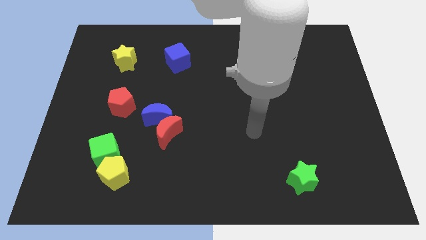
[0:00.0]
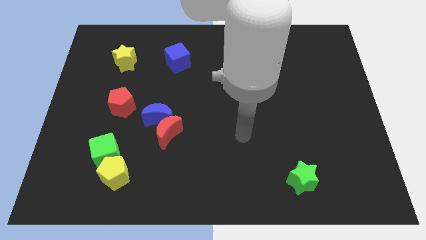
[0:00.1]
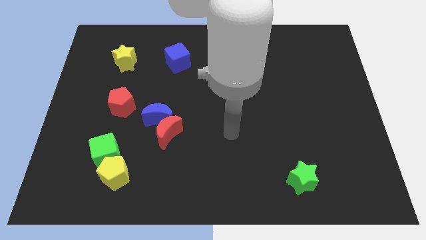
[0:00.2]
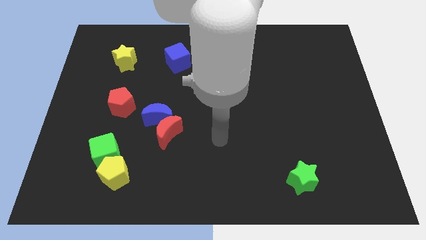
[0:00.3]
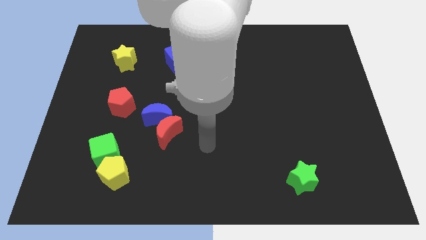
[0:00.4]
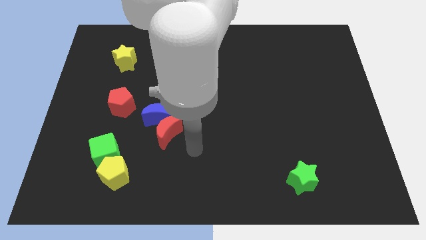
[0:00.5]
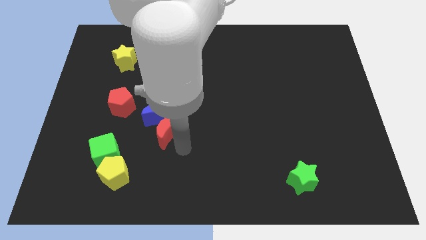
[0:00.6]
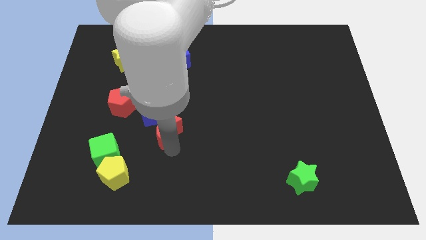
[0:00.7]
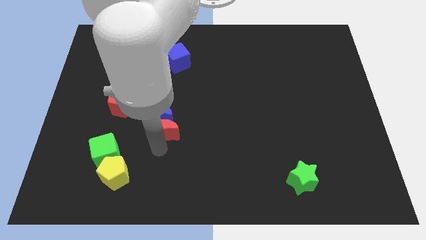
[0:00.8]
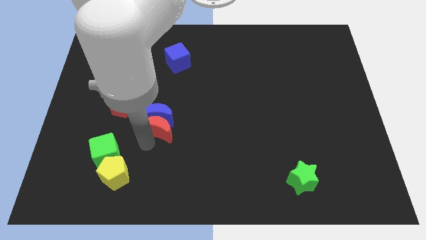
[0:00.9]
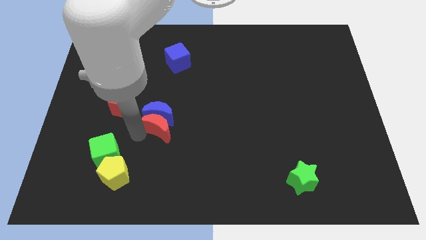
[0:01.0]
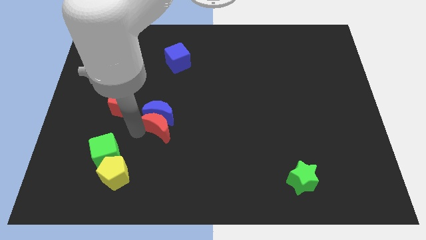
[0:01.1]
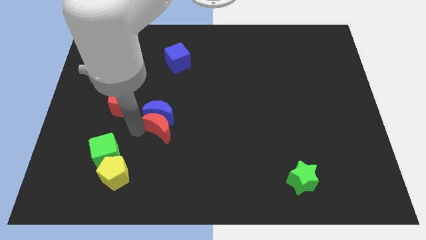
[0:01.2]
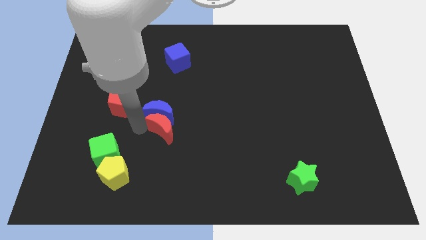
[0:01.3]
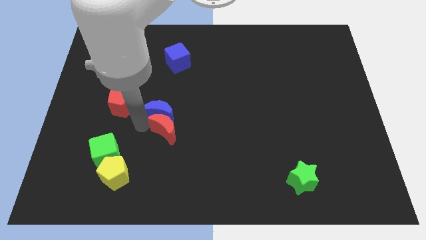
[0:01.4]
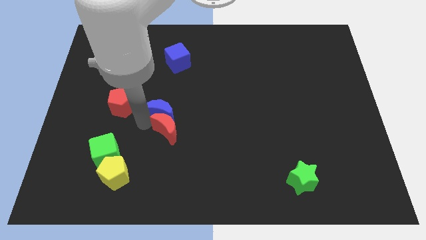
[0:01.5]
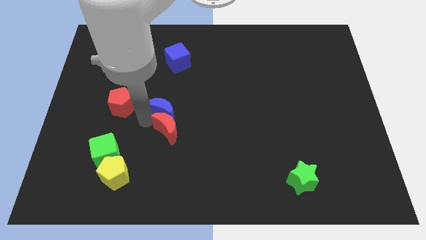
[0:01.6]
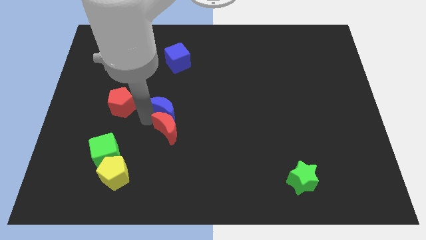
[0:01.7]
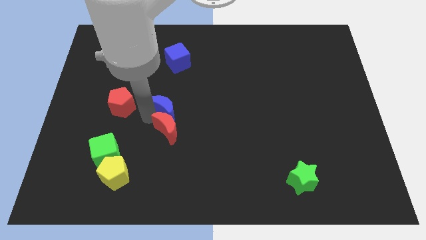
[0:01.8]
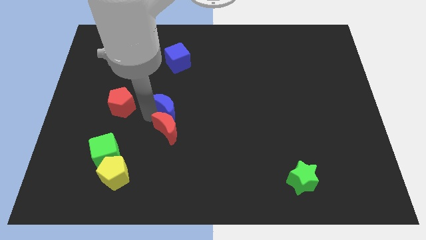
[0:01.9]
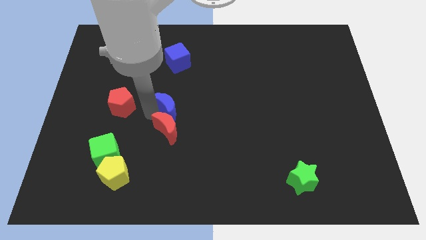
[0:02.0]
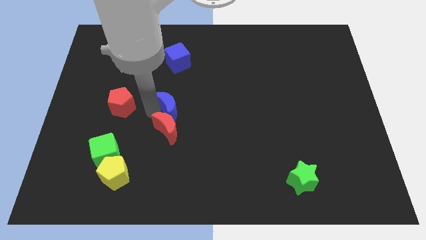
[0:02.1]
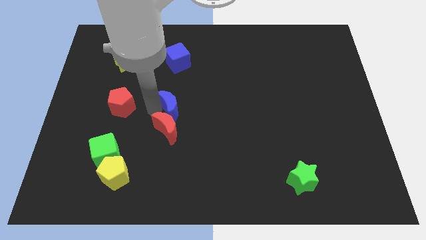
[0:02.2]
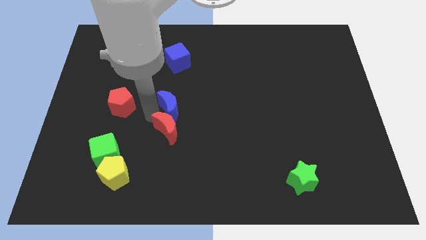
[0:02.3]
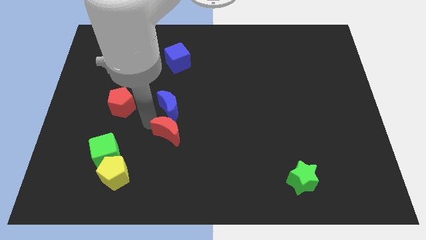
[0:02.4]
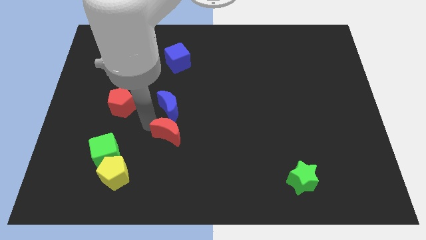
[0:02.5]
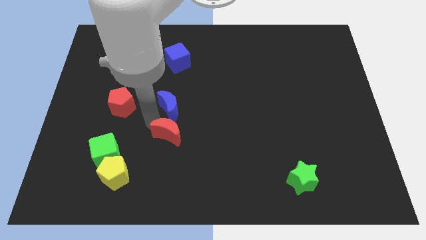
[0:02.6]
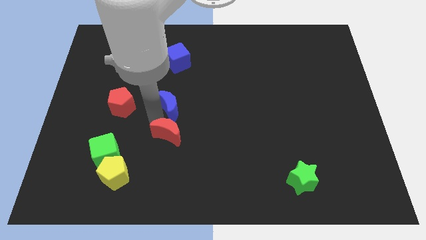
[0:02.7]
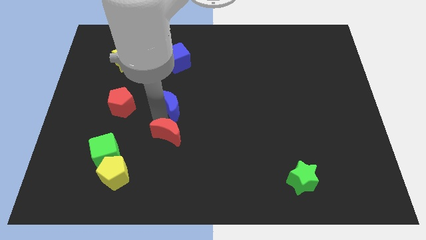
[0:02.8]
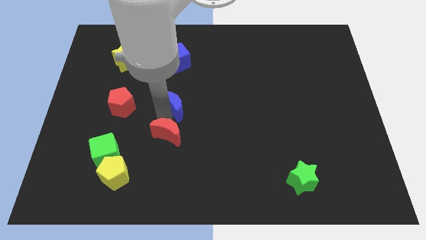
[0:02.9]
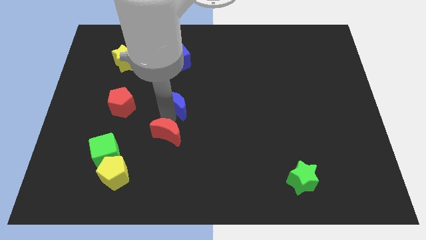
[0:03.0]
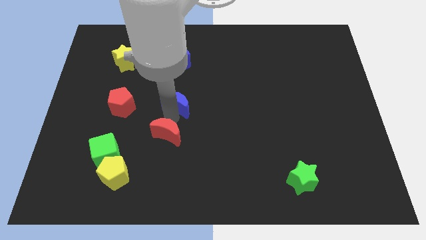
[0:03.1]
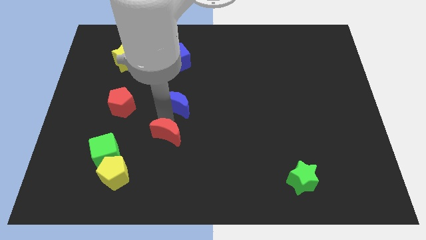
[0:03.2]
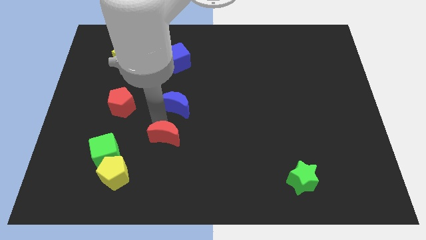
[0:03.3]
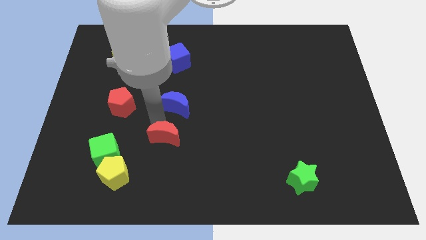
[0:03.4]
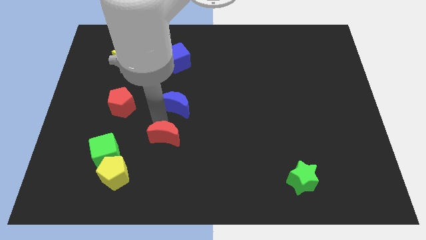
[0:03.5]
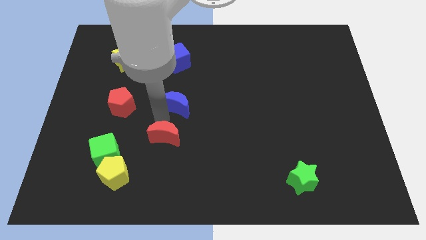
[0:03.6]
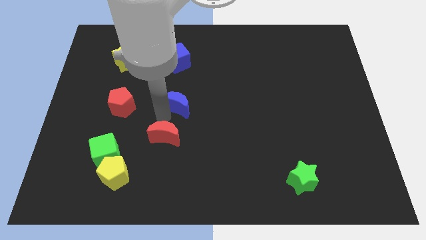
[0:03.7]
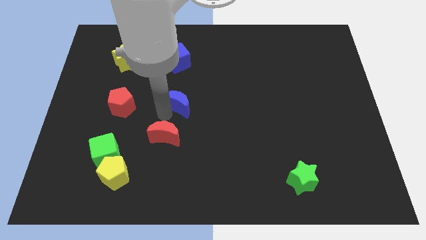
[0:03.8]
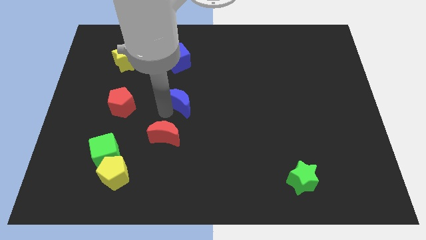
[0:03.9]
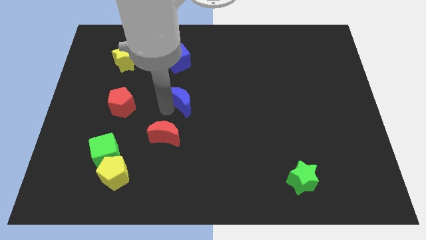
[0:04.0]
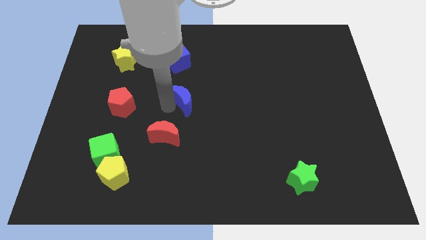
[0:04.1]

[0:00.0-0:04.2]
slide the blue moon upwards and to the right somewhat

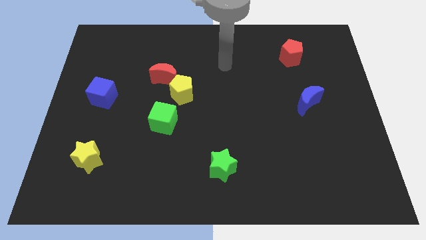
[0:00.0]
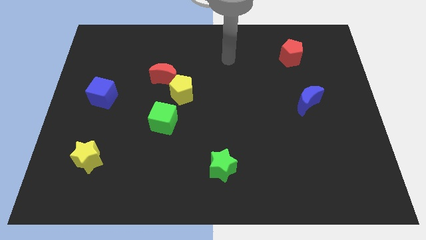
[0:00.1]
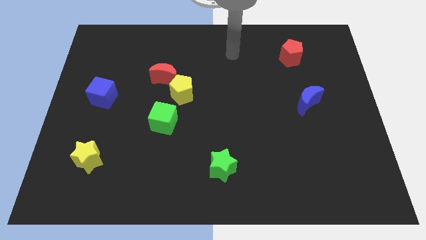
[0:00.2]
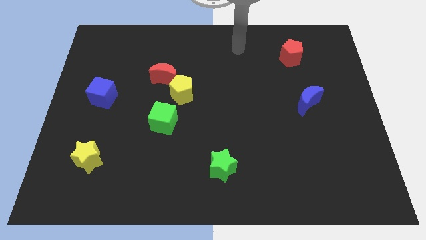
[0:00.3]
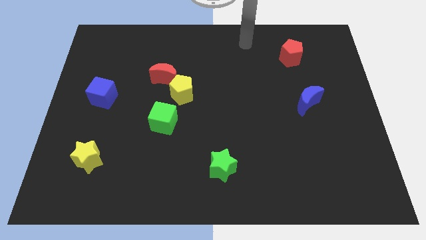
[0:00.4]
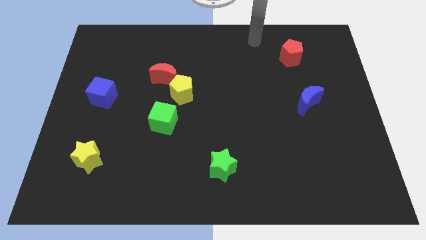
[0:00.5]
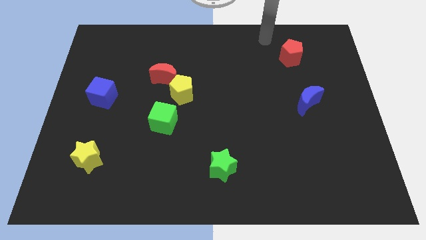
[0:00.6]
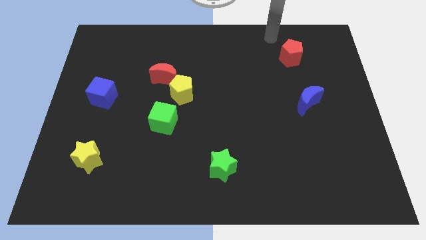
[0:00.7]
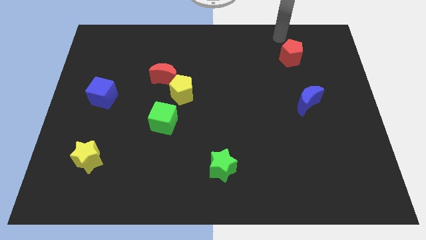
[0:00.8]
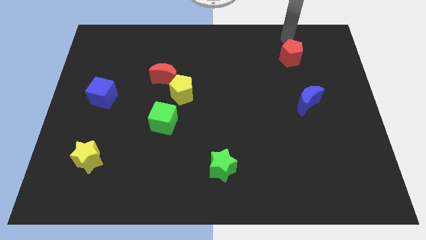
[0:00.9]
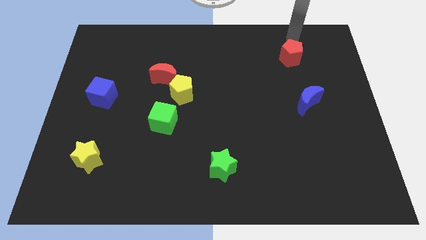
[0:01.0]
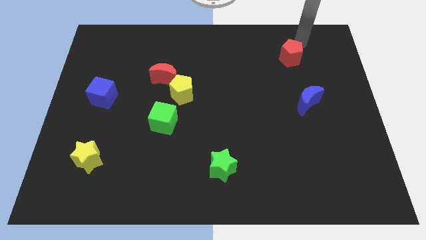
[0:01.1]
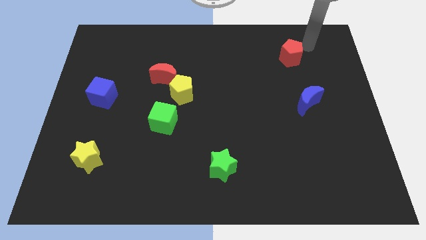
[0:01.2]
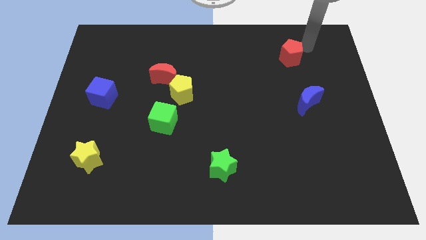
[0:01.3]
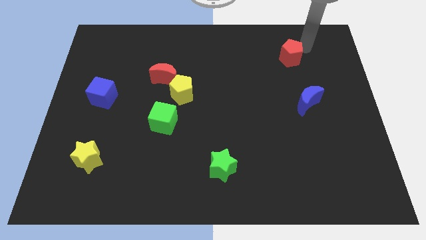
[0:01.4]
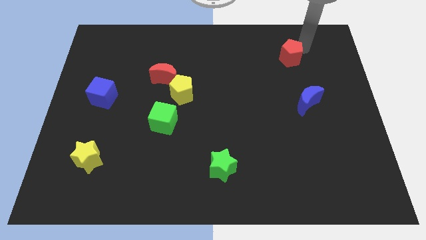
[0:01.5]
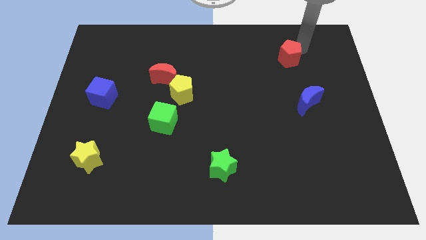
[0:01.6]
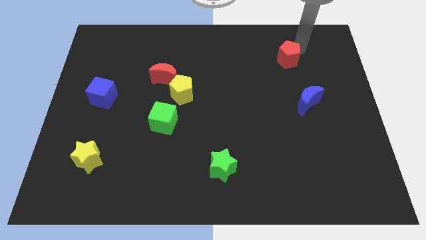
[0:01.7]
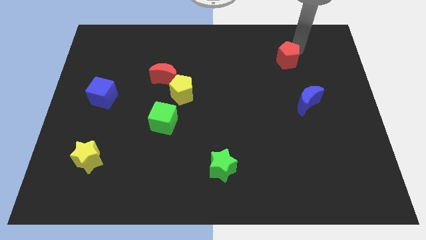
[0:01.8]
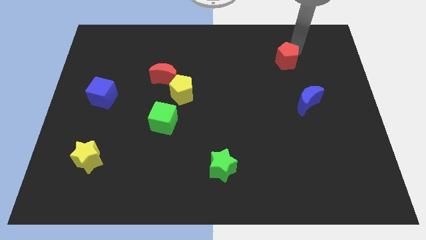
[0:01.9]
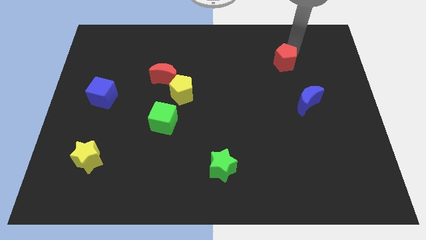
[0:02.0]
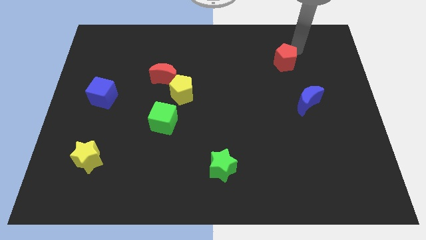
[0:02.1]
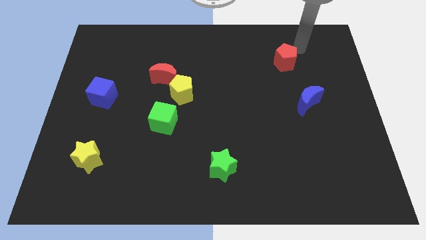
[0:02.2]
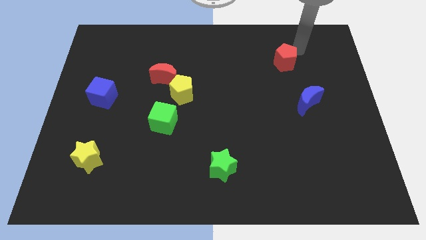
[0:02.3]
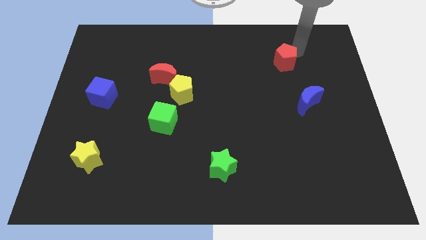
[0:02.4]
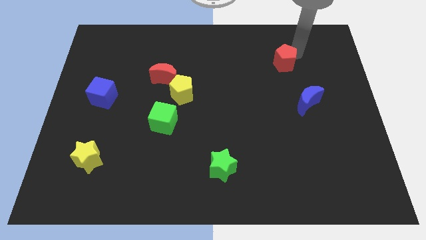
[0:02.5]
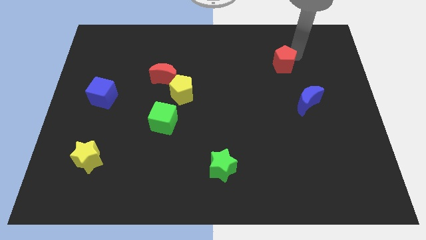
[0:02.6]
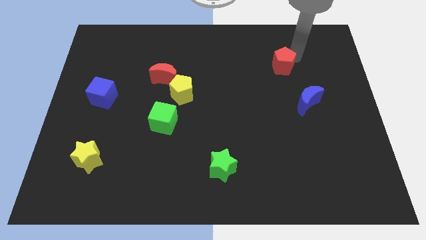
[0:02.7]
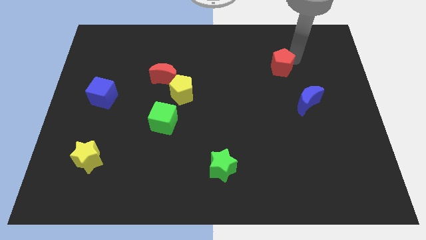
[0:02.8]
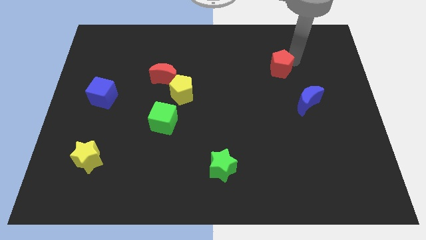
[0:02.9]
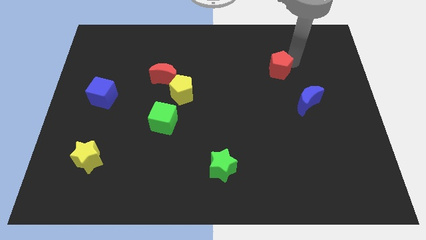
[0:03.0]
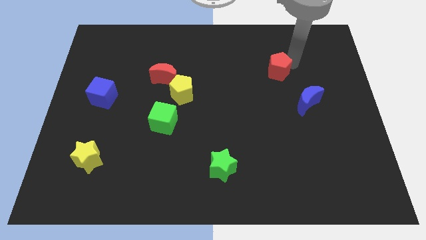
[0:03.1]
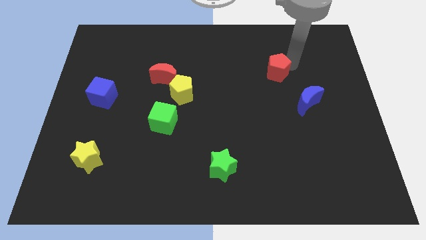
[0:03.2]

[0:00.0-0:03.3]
slightly move the red pentagon down and to the left

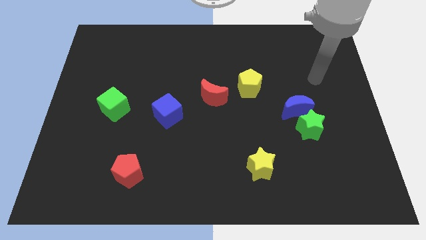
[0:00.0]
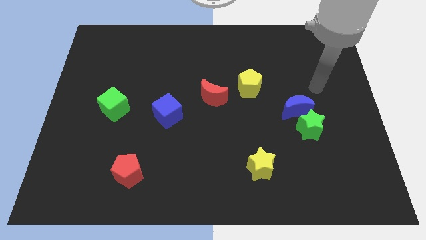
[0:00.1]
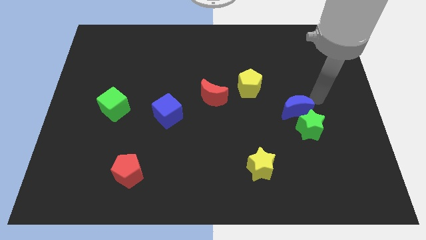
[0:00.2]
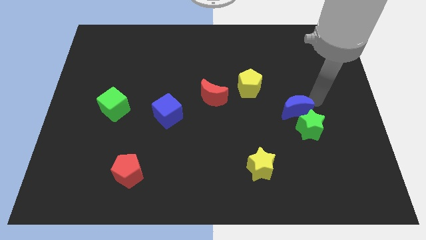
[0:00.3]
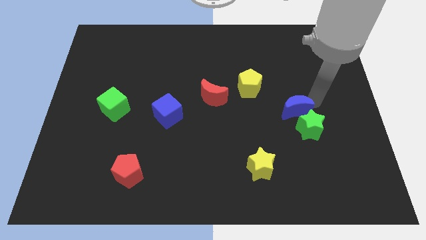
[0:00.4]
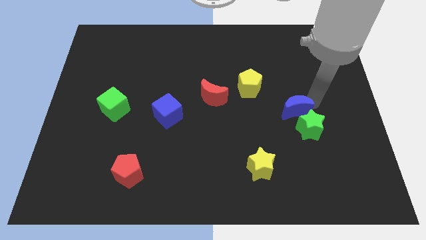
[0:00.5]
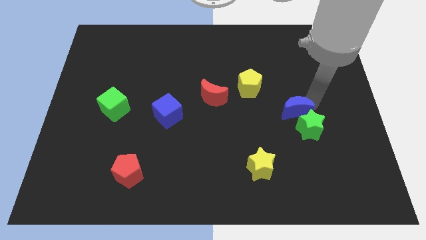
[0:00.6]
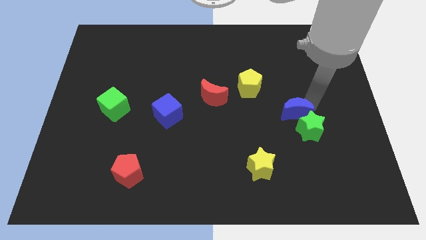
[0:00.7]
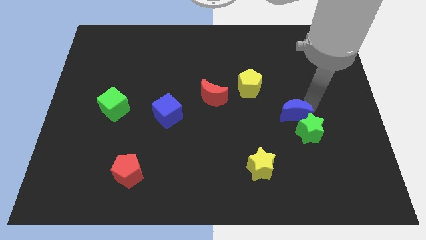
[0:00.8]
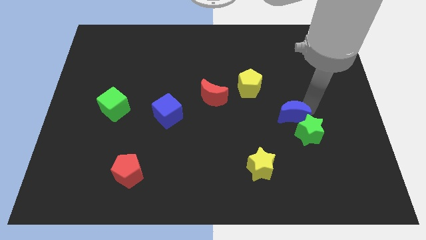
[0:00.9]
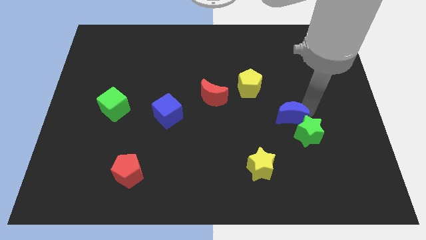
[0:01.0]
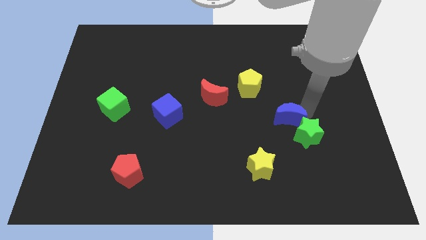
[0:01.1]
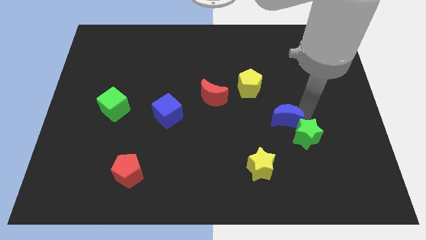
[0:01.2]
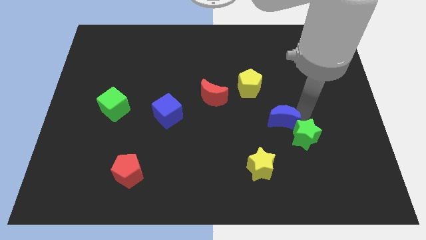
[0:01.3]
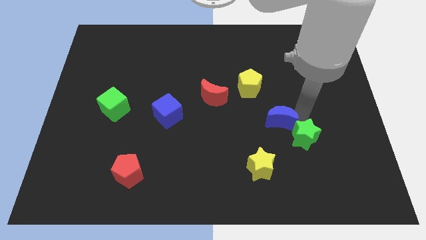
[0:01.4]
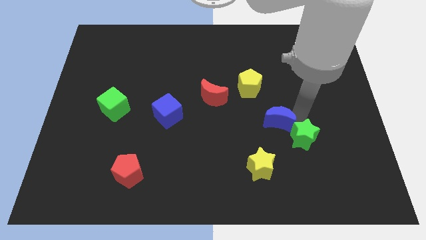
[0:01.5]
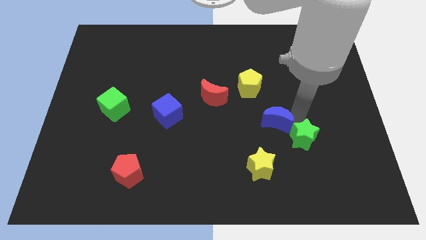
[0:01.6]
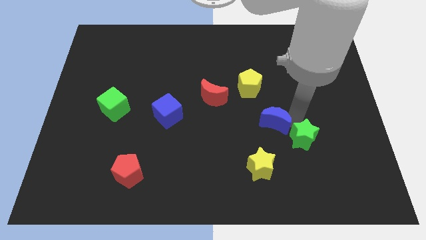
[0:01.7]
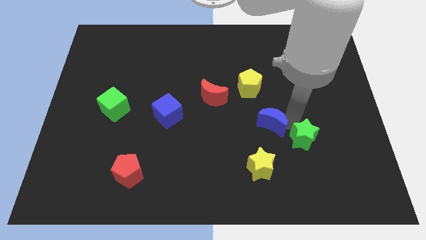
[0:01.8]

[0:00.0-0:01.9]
move the blue moon a little downwards and to the left
